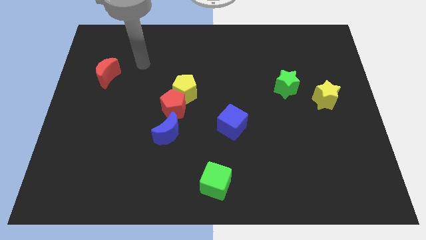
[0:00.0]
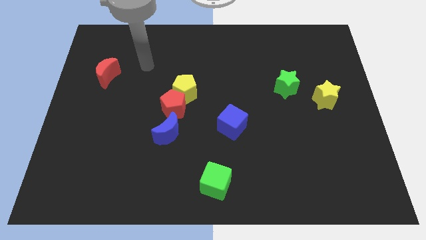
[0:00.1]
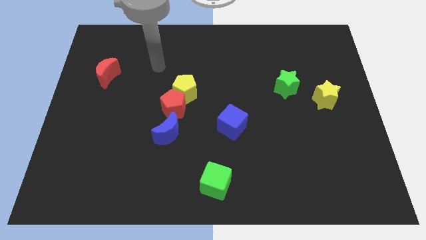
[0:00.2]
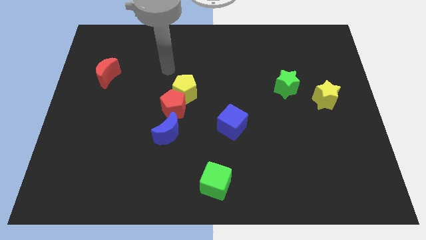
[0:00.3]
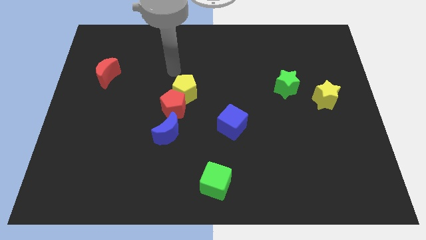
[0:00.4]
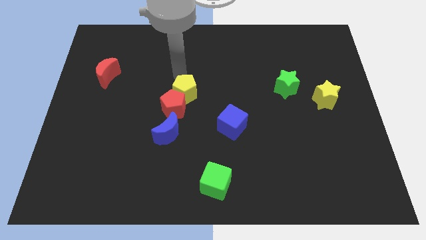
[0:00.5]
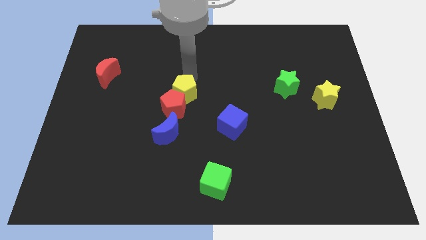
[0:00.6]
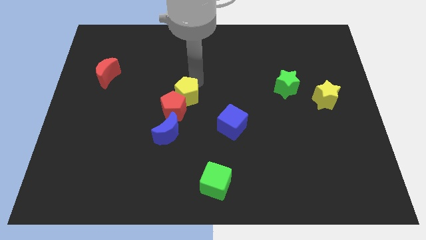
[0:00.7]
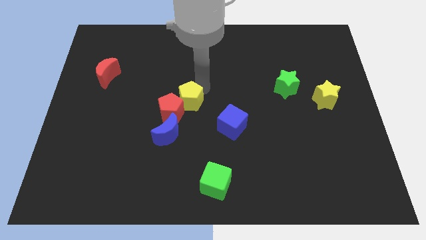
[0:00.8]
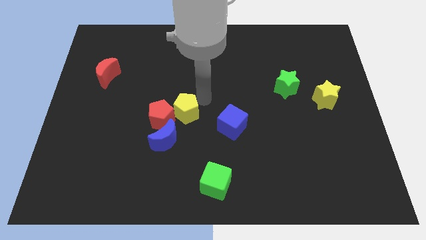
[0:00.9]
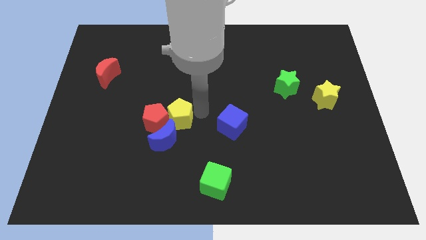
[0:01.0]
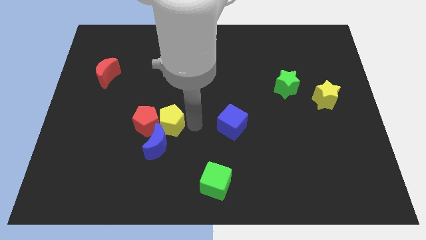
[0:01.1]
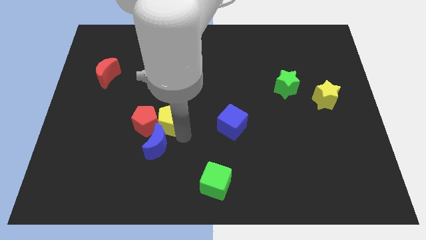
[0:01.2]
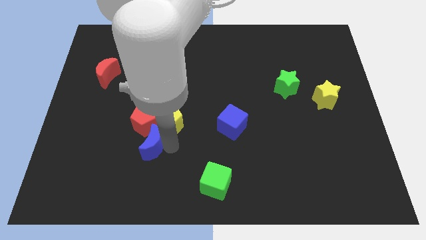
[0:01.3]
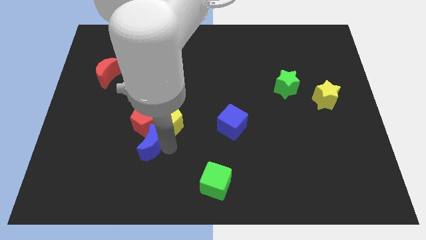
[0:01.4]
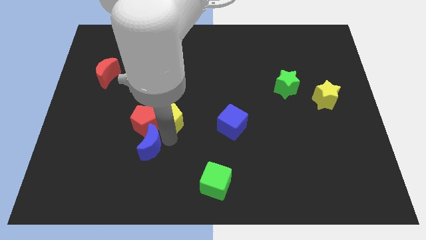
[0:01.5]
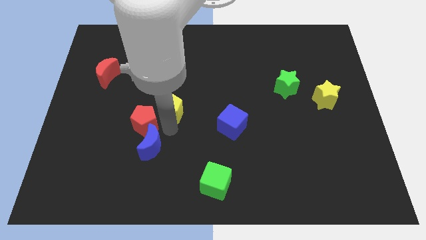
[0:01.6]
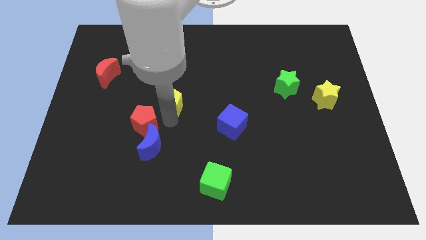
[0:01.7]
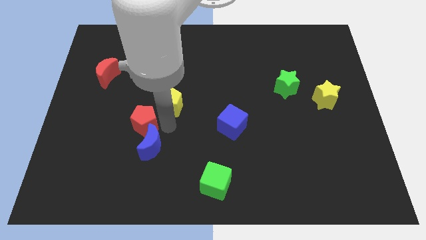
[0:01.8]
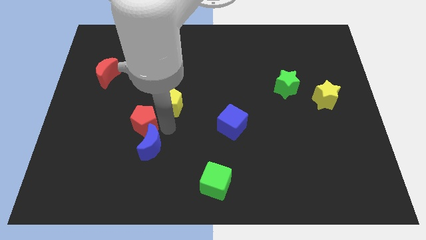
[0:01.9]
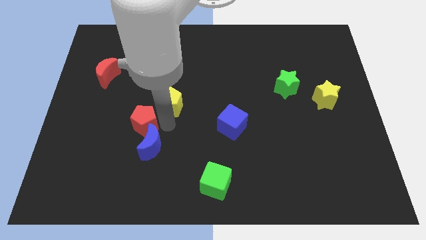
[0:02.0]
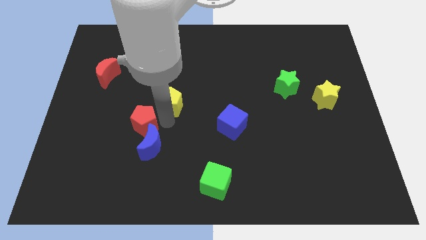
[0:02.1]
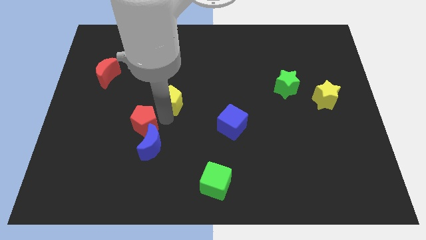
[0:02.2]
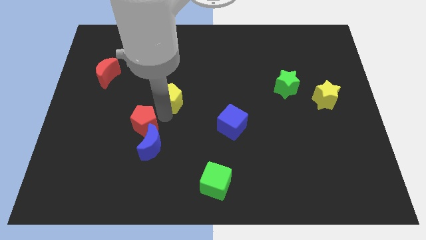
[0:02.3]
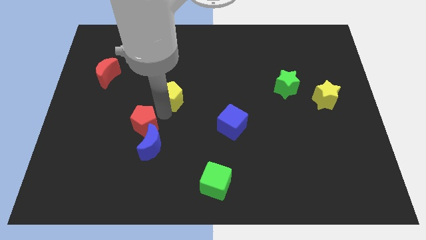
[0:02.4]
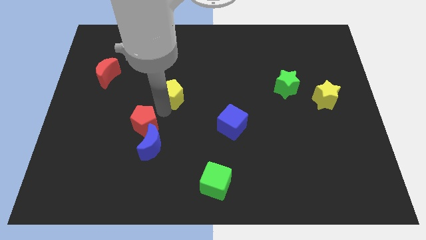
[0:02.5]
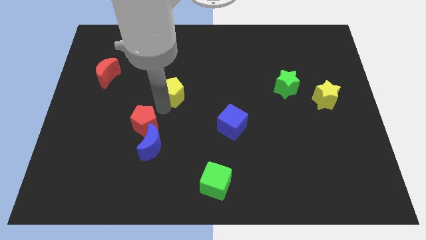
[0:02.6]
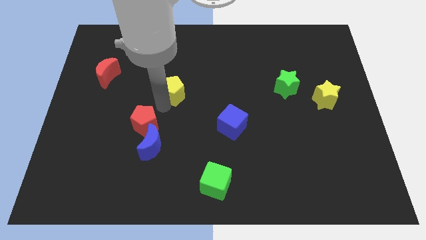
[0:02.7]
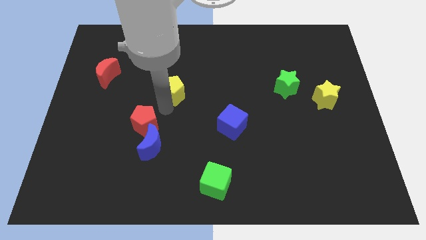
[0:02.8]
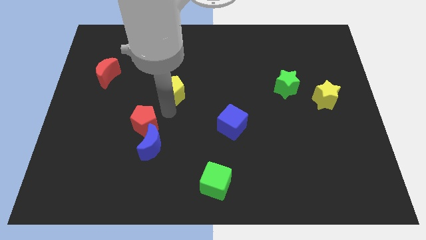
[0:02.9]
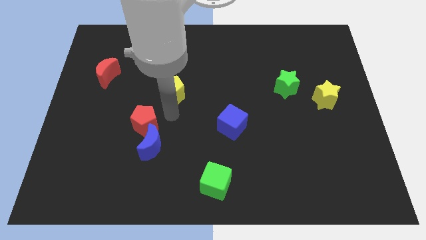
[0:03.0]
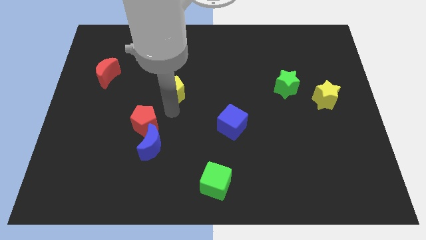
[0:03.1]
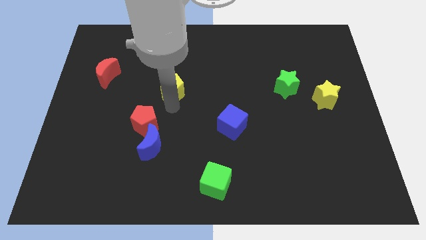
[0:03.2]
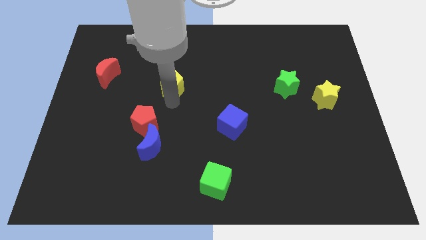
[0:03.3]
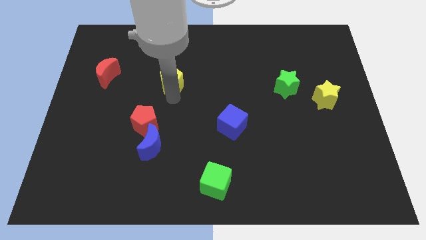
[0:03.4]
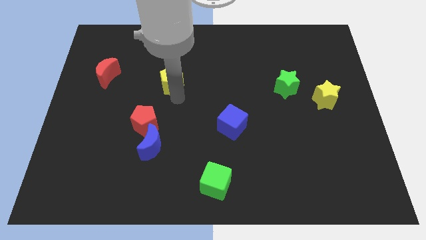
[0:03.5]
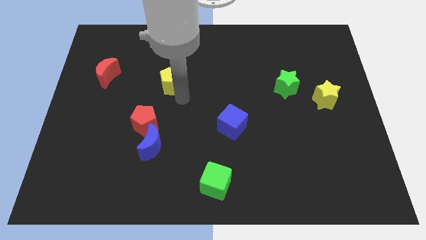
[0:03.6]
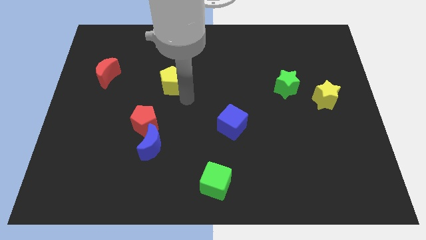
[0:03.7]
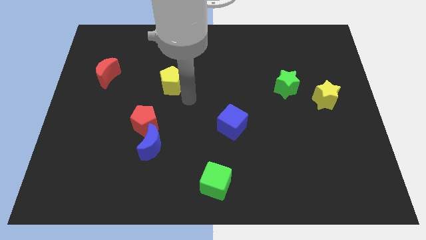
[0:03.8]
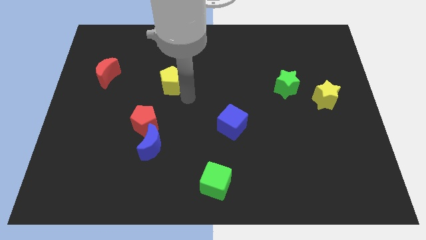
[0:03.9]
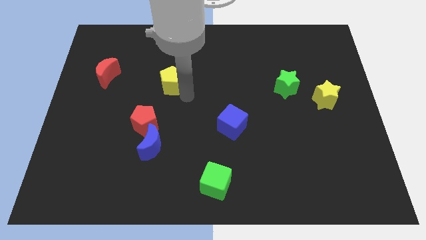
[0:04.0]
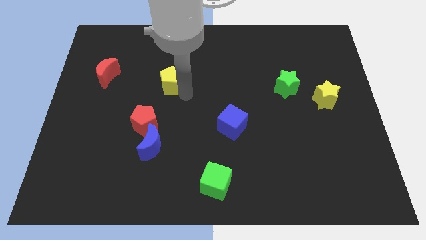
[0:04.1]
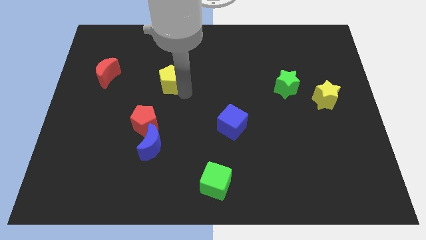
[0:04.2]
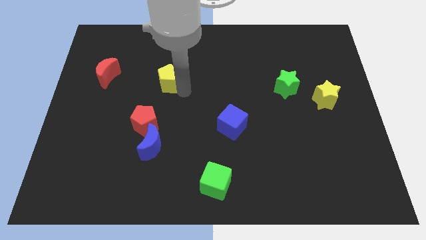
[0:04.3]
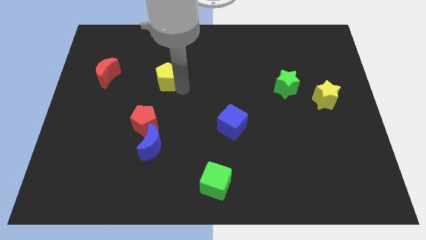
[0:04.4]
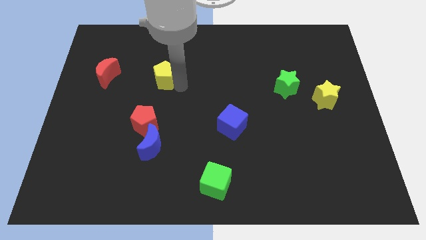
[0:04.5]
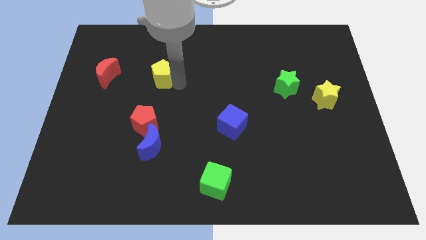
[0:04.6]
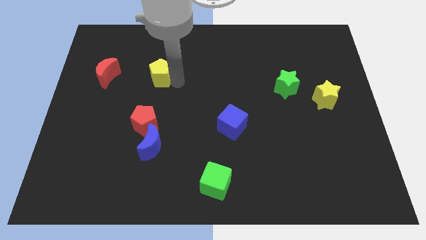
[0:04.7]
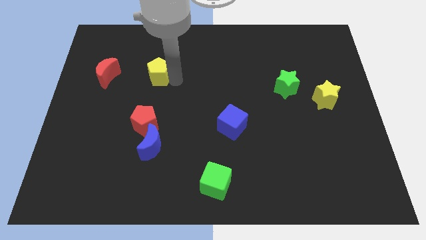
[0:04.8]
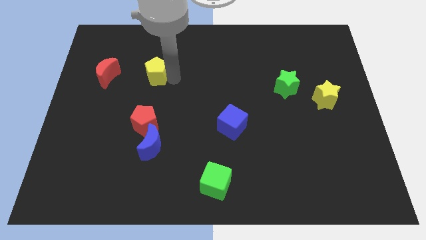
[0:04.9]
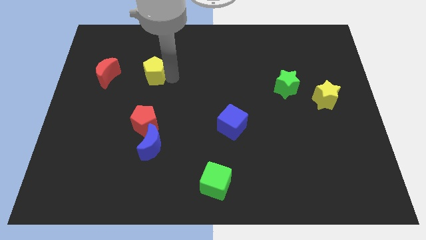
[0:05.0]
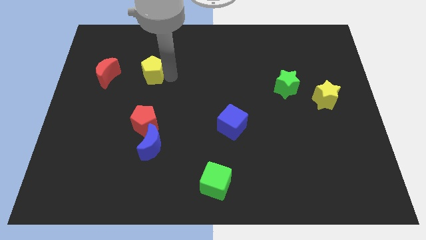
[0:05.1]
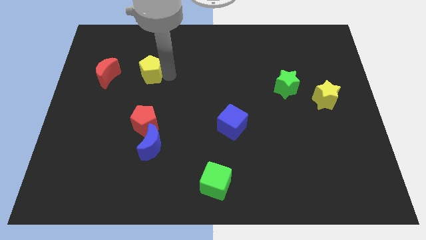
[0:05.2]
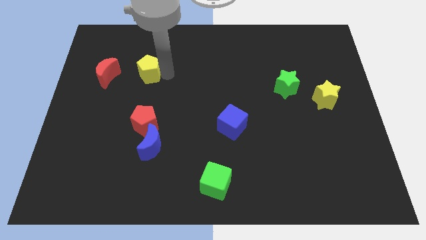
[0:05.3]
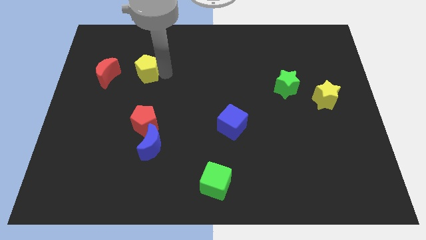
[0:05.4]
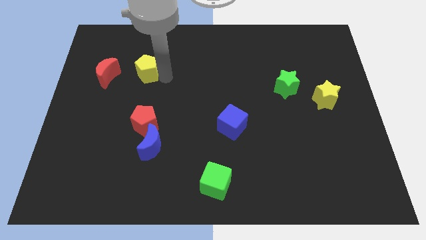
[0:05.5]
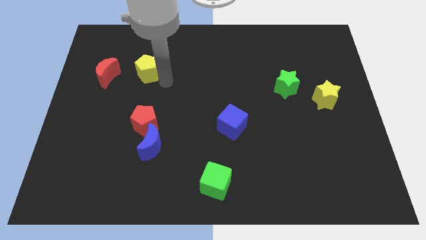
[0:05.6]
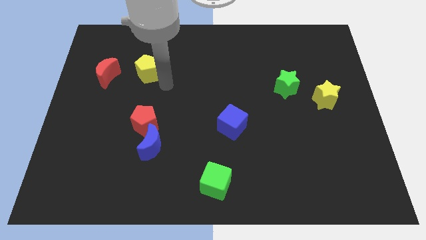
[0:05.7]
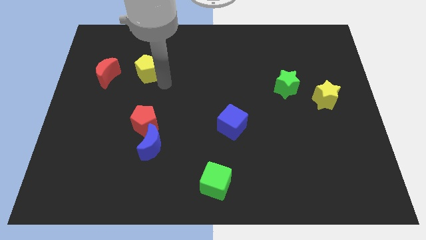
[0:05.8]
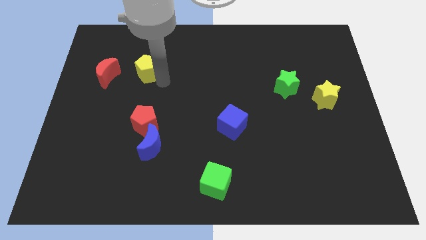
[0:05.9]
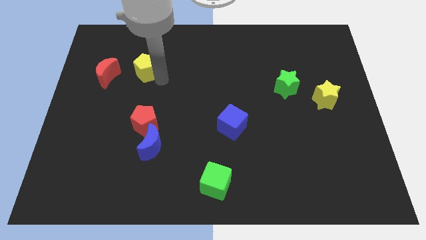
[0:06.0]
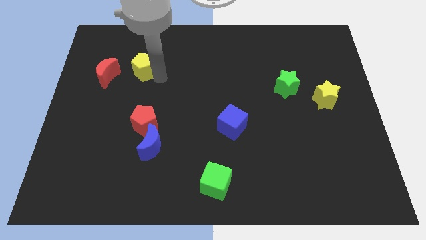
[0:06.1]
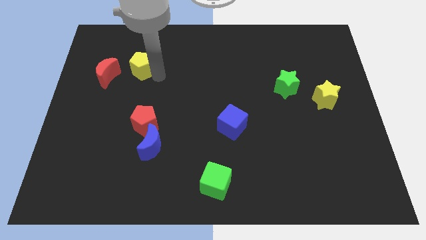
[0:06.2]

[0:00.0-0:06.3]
move the yellow pentagon to the top right side of the red moon
